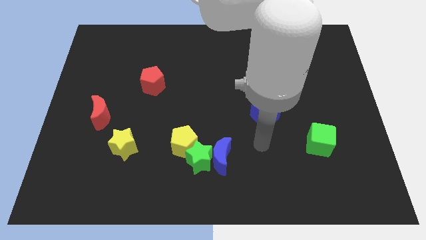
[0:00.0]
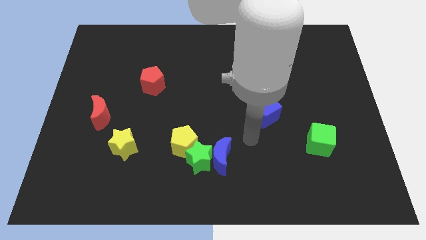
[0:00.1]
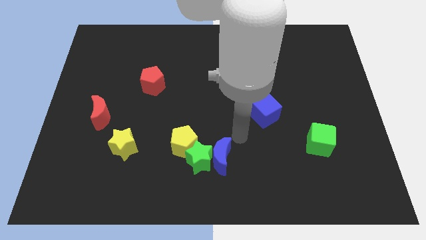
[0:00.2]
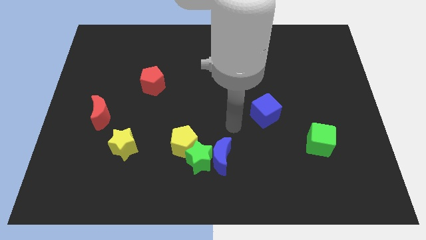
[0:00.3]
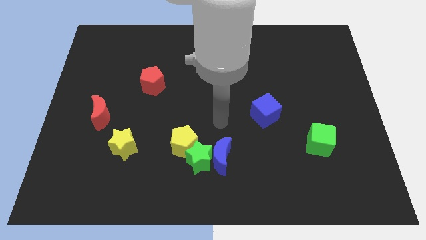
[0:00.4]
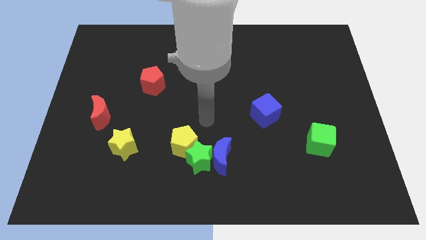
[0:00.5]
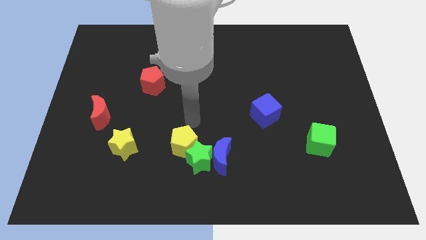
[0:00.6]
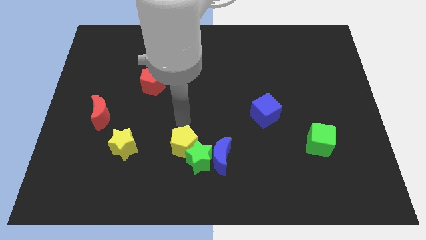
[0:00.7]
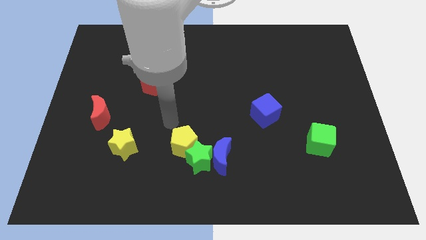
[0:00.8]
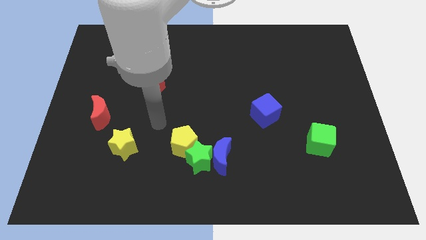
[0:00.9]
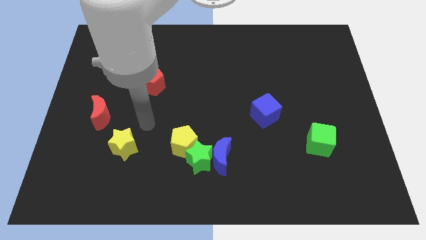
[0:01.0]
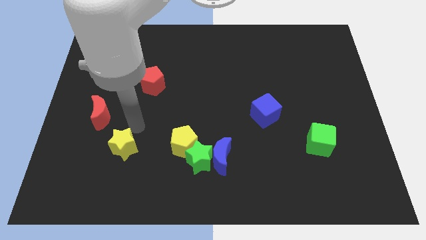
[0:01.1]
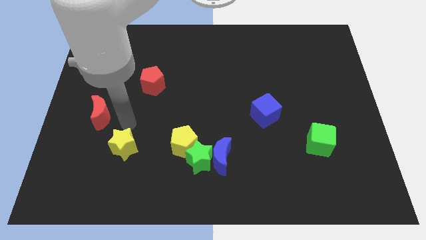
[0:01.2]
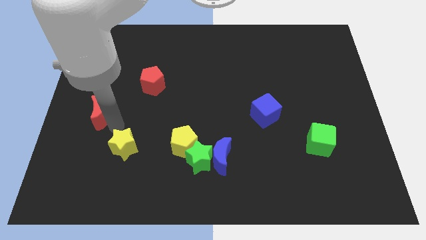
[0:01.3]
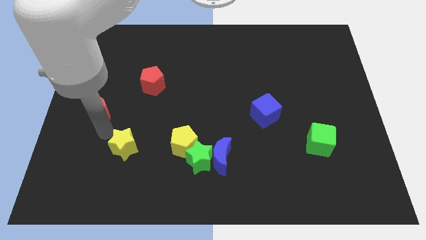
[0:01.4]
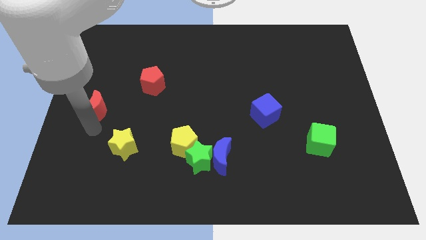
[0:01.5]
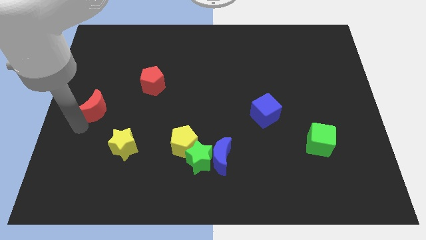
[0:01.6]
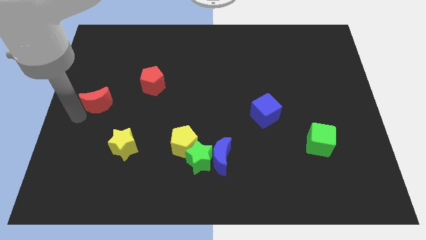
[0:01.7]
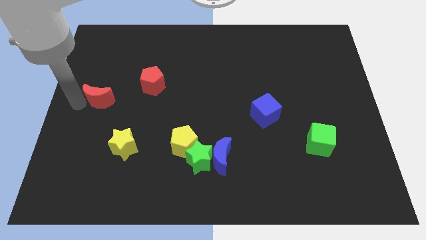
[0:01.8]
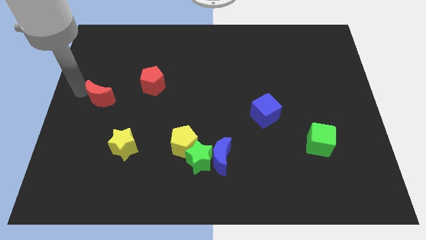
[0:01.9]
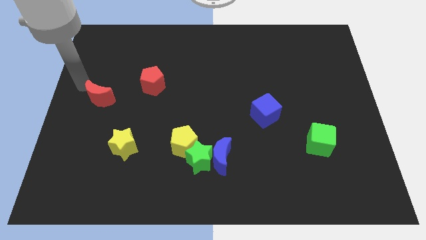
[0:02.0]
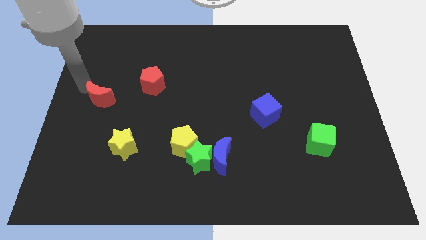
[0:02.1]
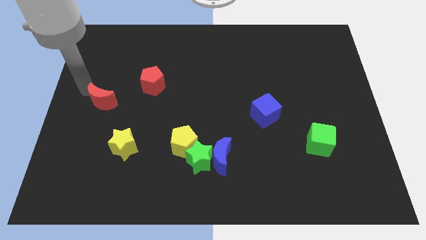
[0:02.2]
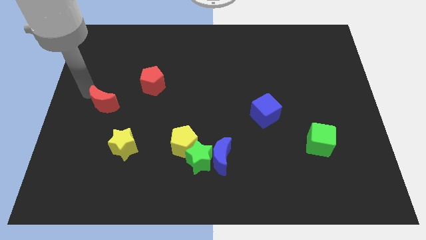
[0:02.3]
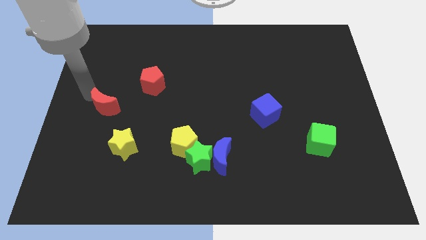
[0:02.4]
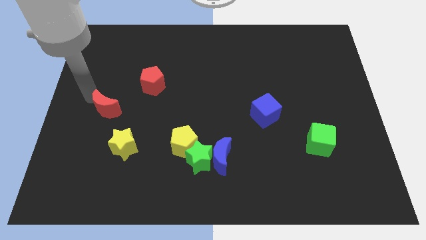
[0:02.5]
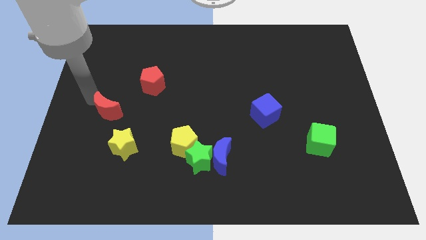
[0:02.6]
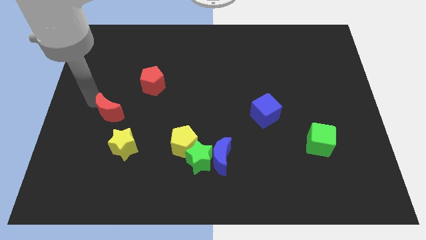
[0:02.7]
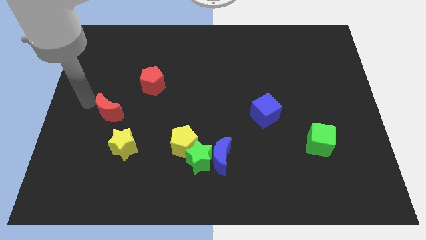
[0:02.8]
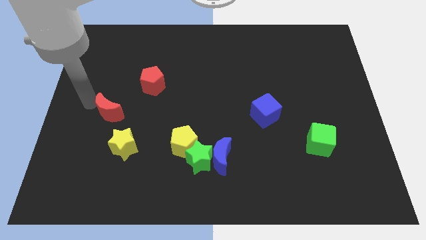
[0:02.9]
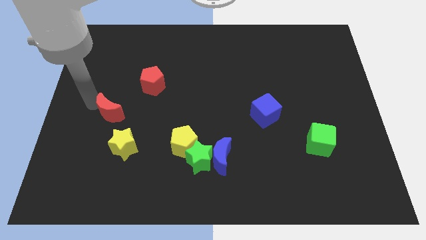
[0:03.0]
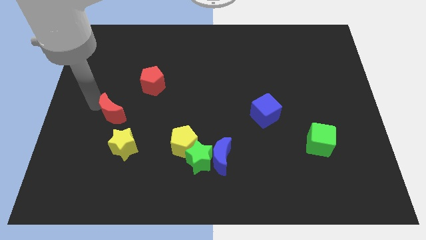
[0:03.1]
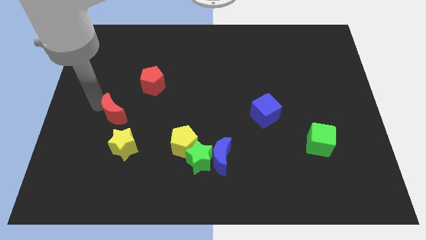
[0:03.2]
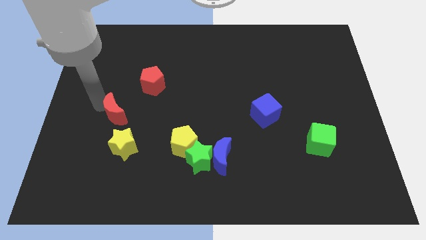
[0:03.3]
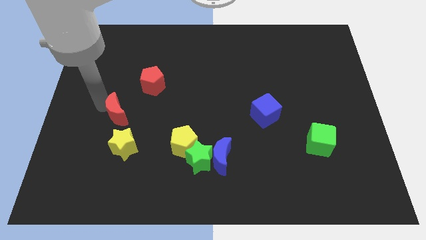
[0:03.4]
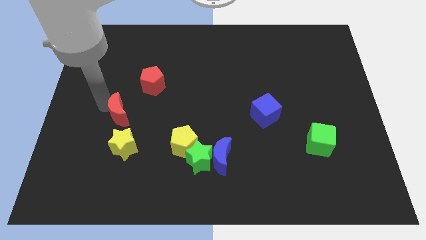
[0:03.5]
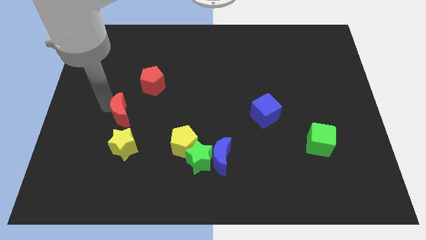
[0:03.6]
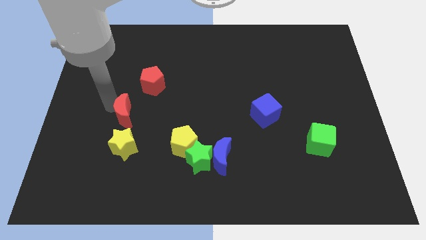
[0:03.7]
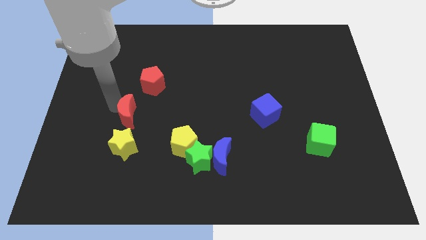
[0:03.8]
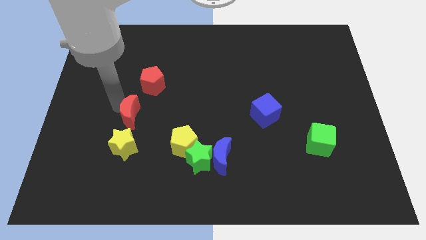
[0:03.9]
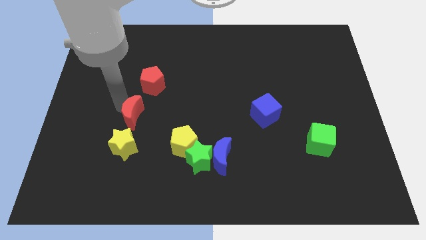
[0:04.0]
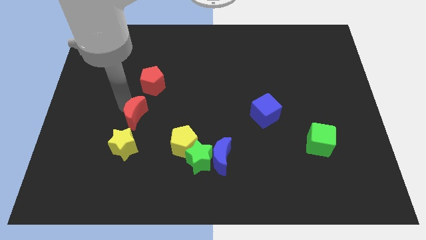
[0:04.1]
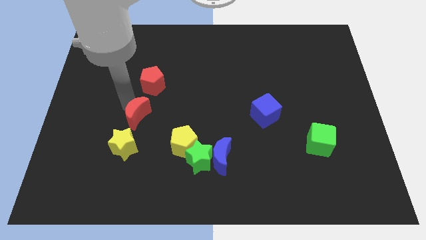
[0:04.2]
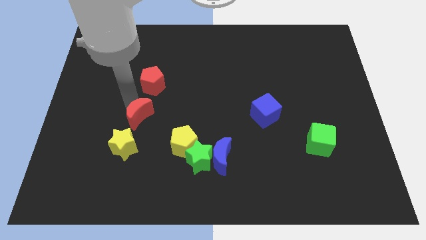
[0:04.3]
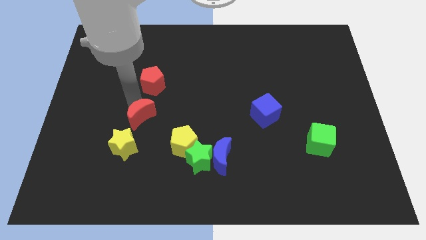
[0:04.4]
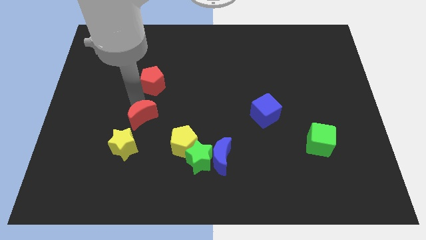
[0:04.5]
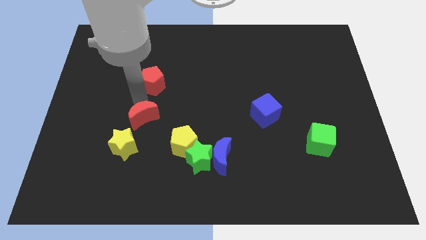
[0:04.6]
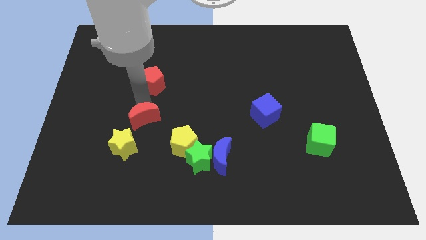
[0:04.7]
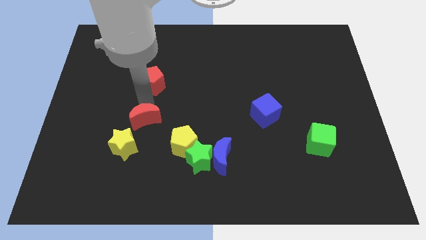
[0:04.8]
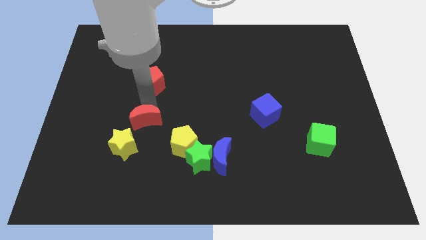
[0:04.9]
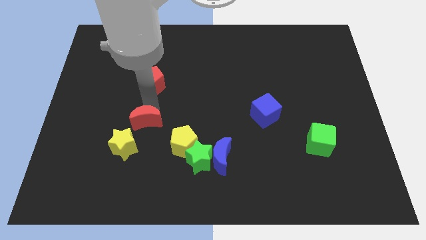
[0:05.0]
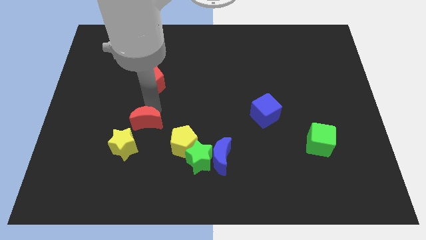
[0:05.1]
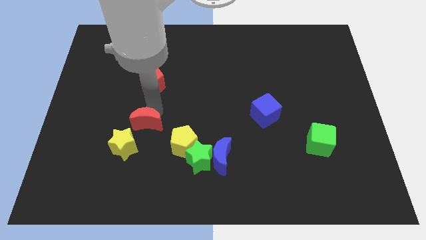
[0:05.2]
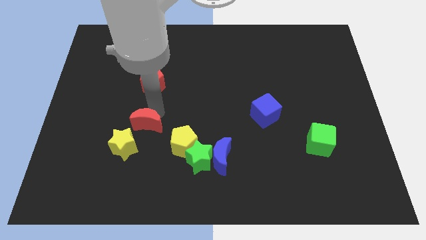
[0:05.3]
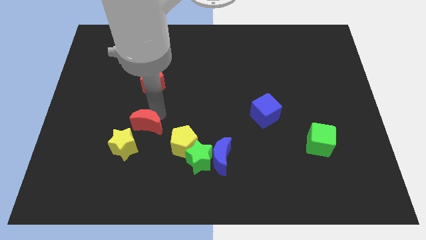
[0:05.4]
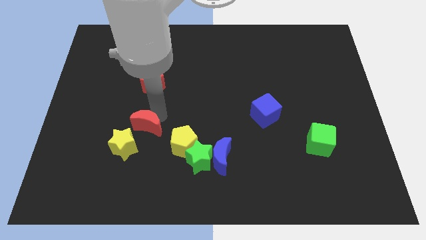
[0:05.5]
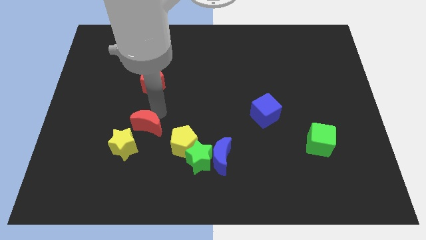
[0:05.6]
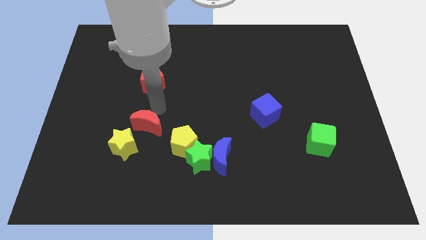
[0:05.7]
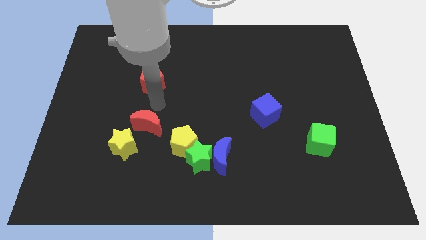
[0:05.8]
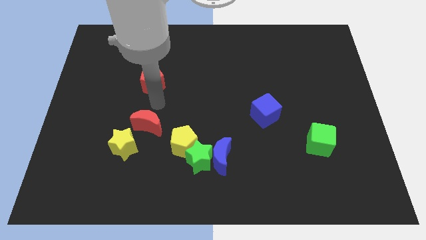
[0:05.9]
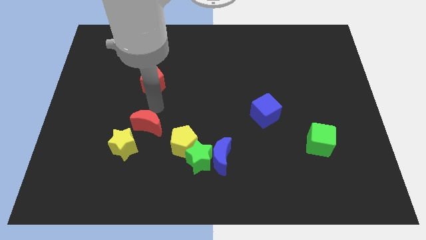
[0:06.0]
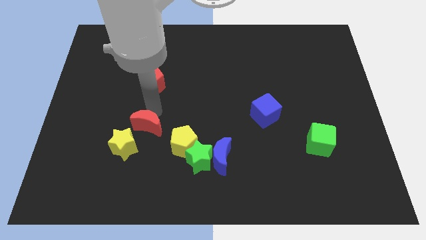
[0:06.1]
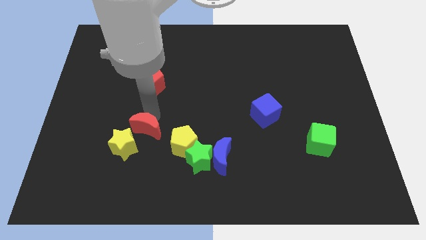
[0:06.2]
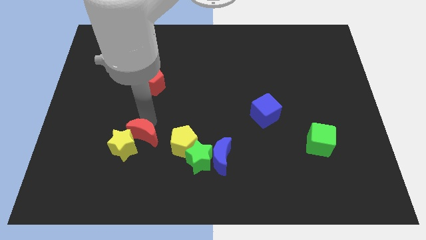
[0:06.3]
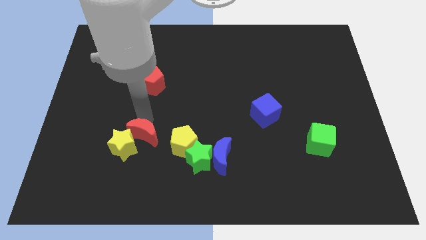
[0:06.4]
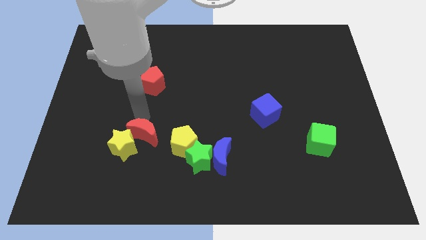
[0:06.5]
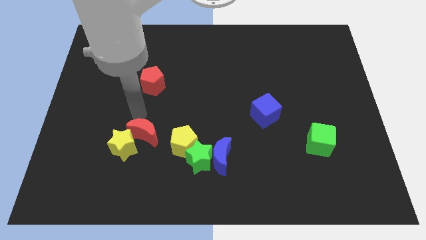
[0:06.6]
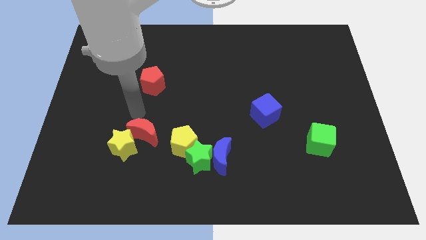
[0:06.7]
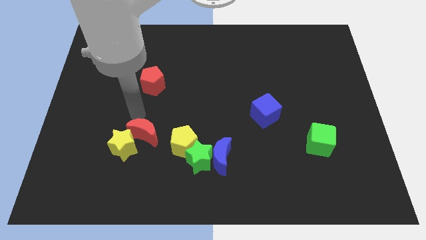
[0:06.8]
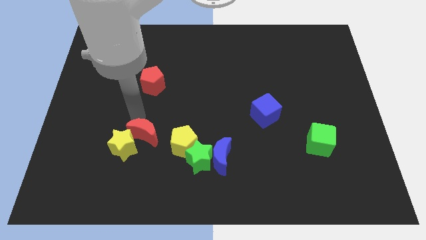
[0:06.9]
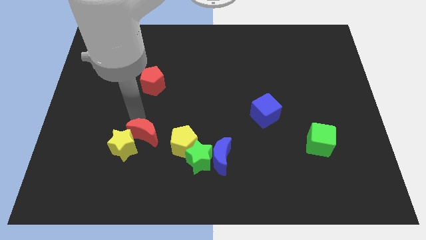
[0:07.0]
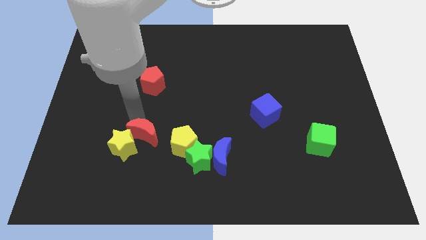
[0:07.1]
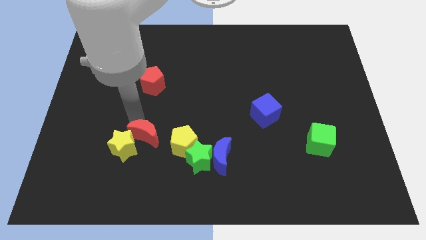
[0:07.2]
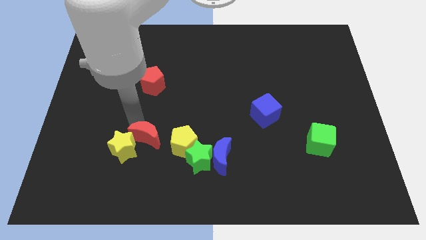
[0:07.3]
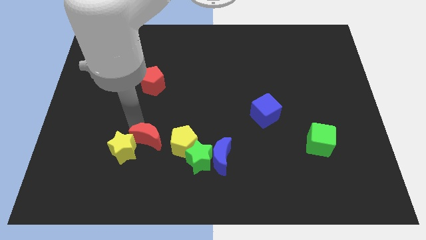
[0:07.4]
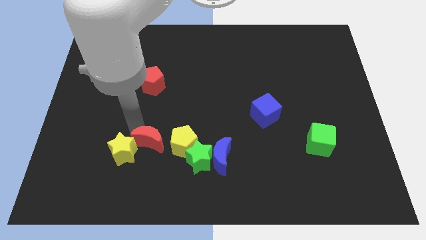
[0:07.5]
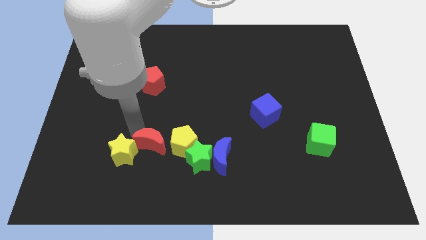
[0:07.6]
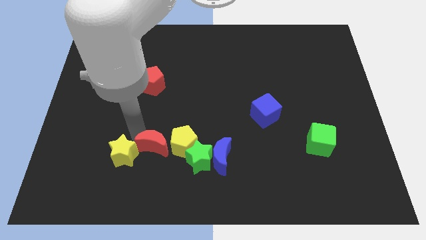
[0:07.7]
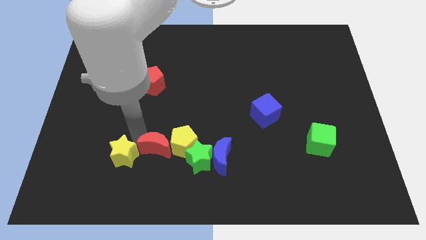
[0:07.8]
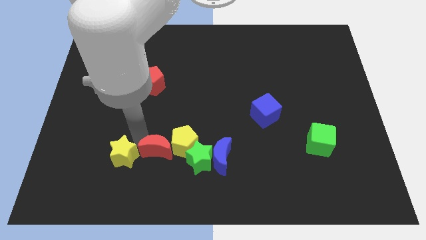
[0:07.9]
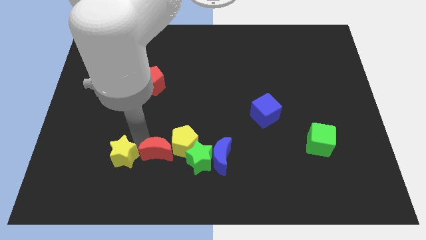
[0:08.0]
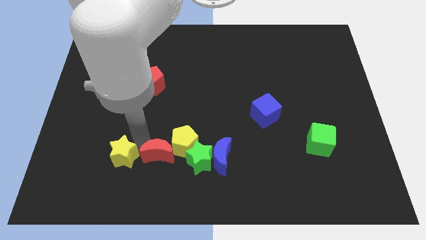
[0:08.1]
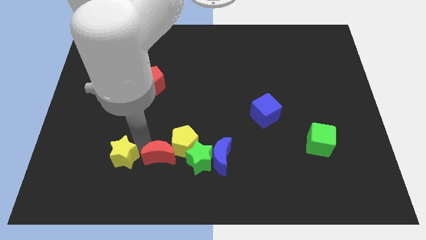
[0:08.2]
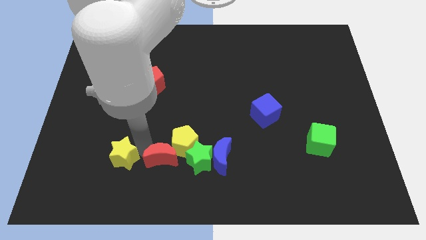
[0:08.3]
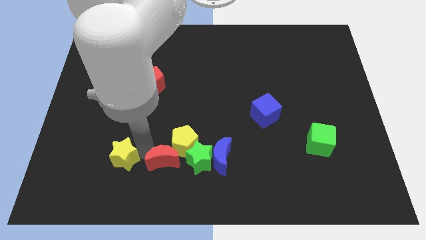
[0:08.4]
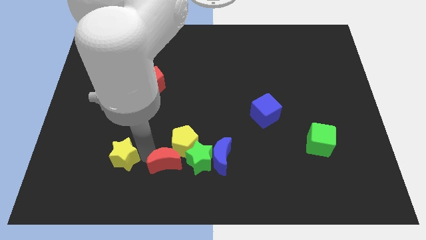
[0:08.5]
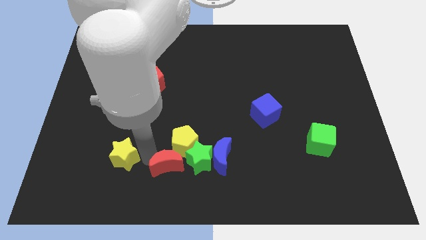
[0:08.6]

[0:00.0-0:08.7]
slide the red moon to the bottom left side of the green star
